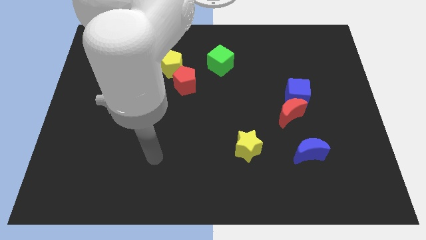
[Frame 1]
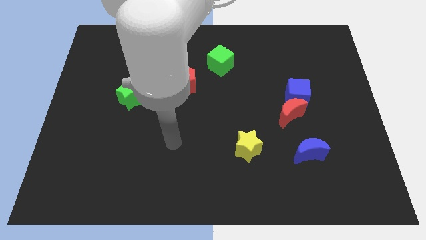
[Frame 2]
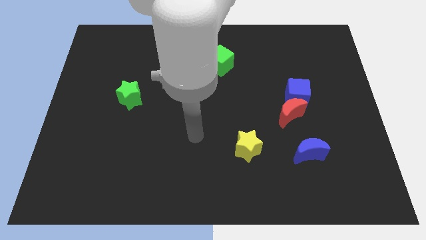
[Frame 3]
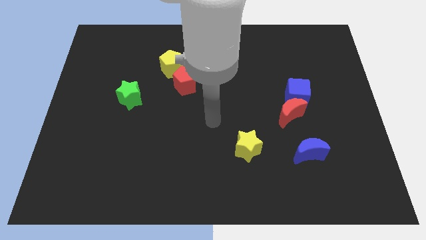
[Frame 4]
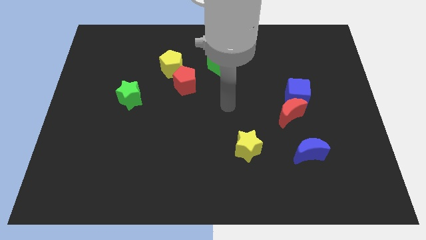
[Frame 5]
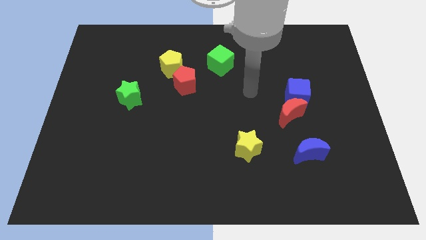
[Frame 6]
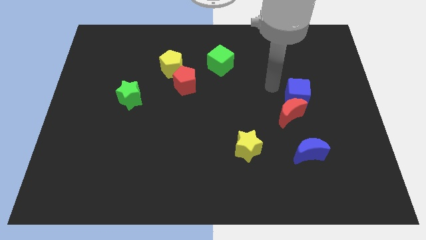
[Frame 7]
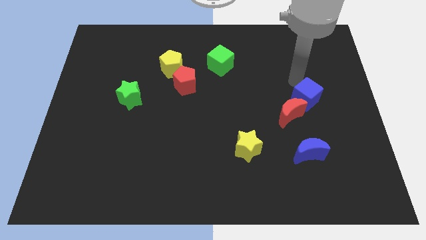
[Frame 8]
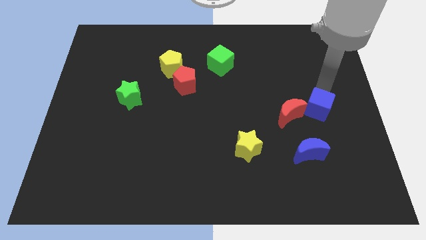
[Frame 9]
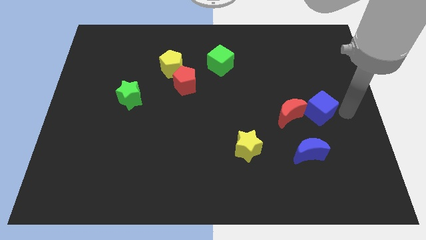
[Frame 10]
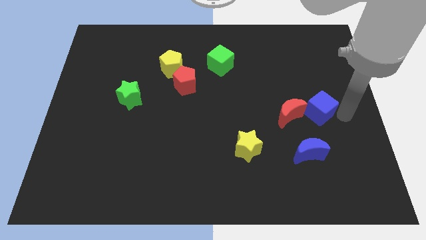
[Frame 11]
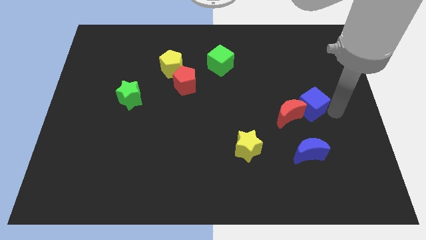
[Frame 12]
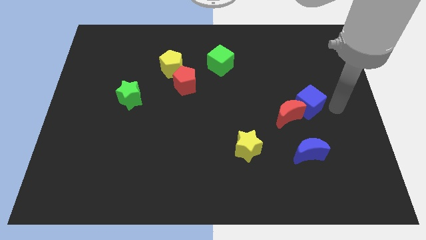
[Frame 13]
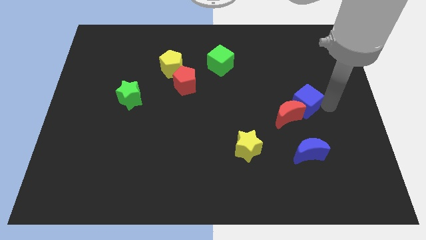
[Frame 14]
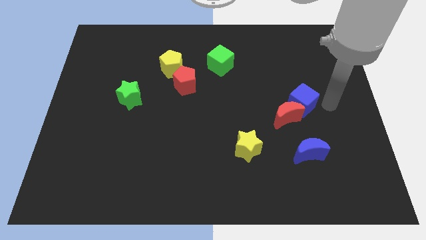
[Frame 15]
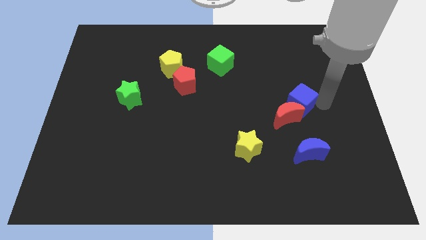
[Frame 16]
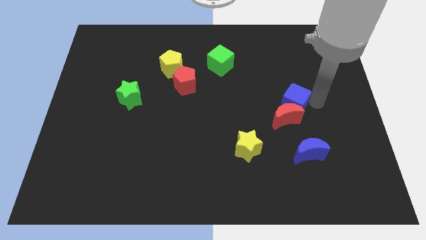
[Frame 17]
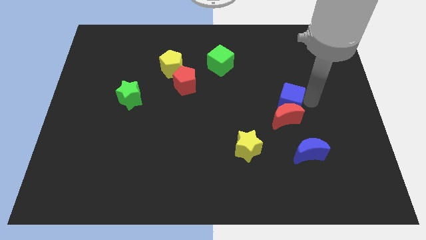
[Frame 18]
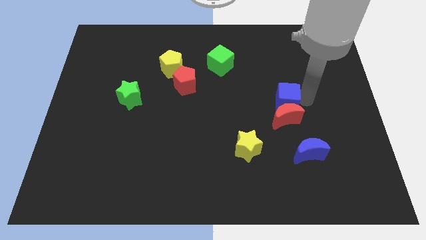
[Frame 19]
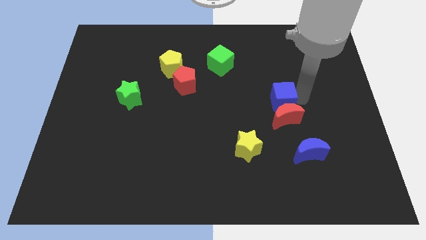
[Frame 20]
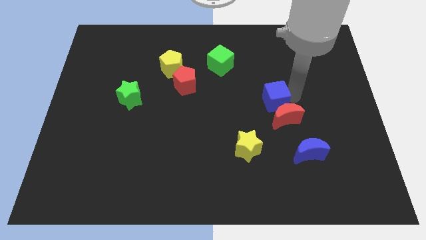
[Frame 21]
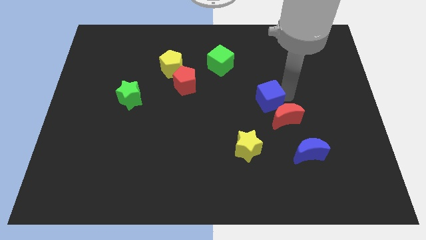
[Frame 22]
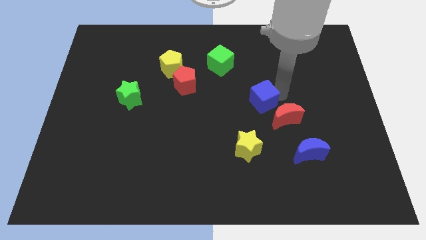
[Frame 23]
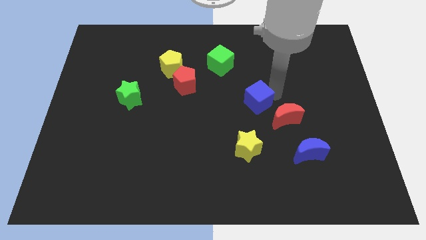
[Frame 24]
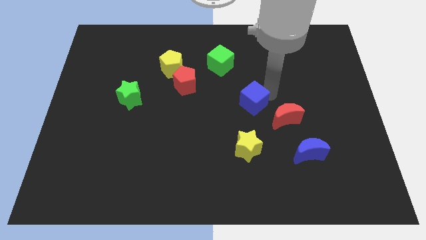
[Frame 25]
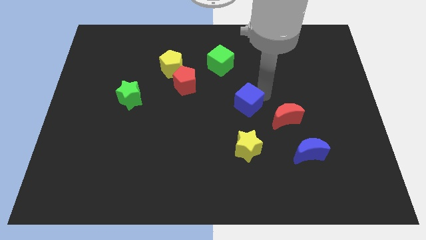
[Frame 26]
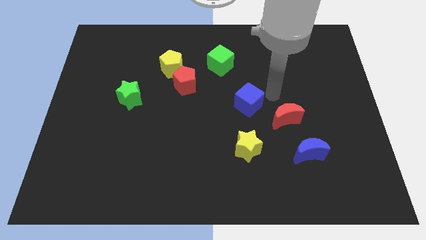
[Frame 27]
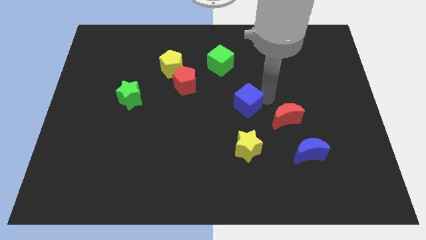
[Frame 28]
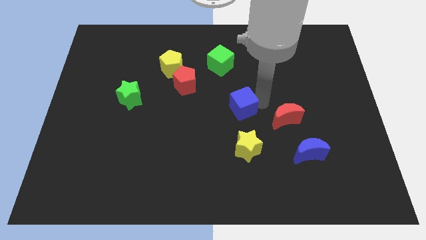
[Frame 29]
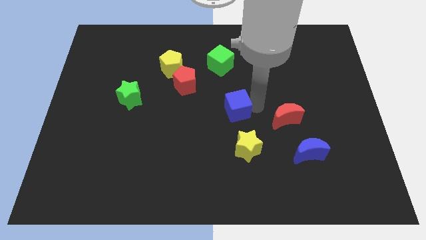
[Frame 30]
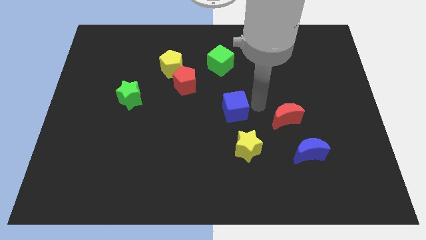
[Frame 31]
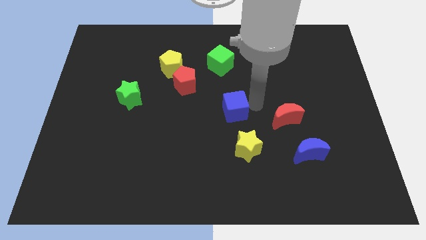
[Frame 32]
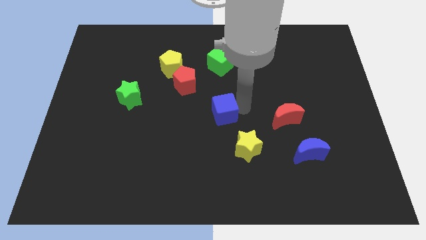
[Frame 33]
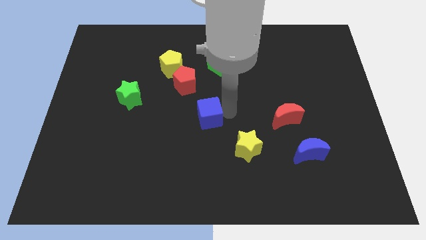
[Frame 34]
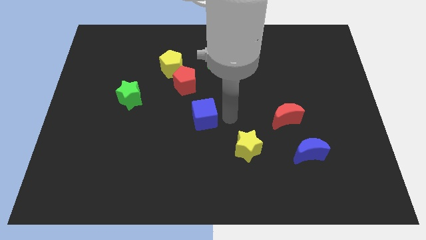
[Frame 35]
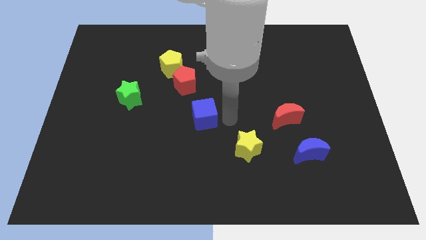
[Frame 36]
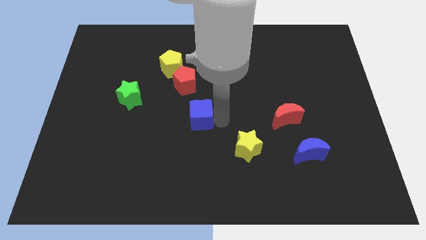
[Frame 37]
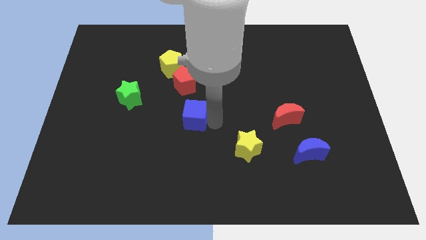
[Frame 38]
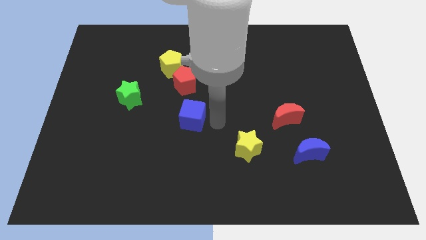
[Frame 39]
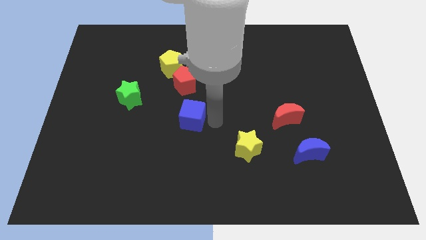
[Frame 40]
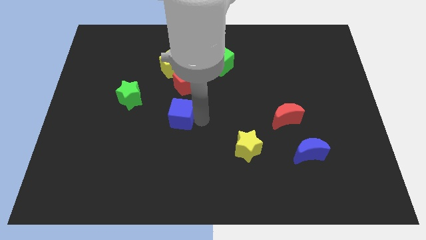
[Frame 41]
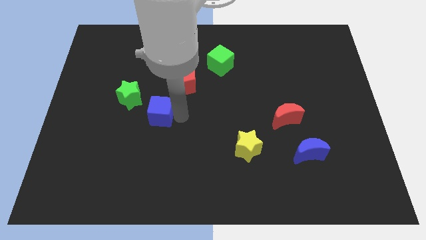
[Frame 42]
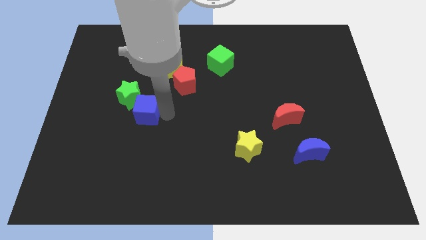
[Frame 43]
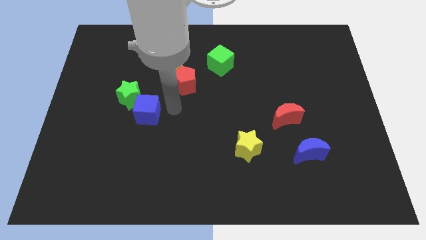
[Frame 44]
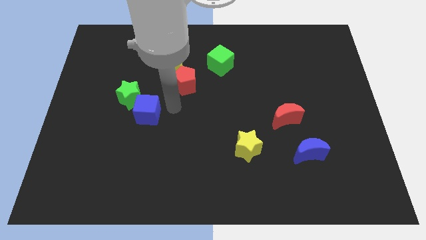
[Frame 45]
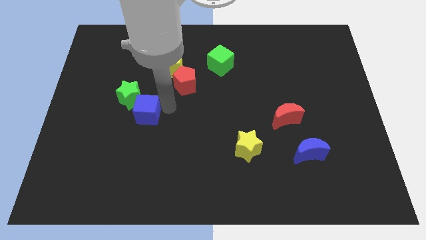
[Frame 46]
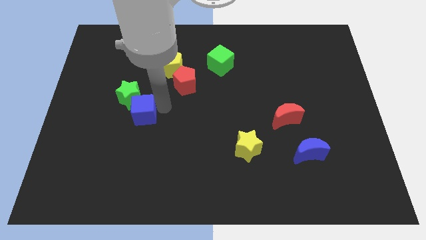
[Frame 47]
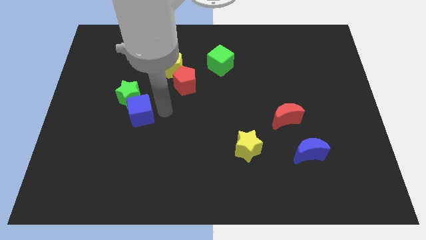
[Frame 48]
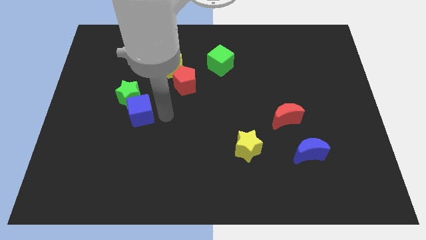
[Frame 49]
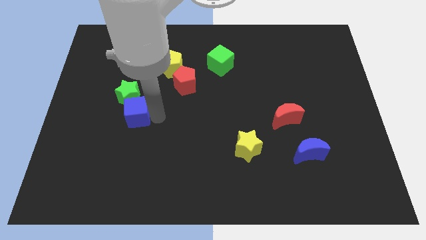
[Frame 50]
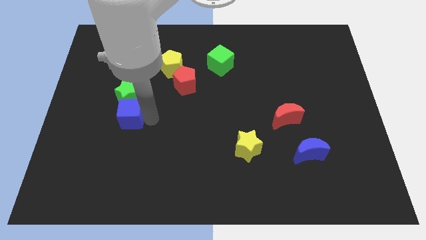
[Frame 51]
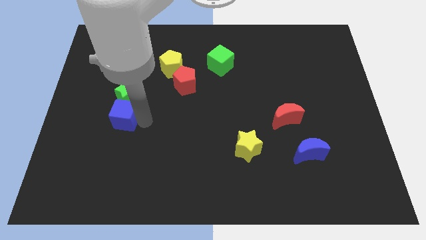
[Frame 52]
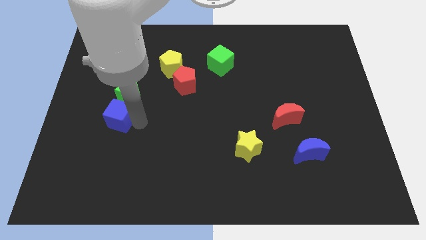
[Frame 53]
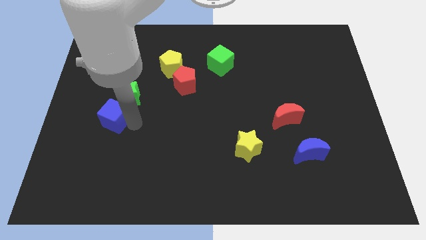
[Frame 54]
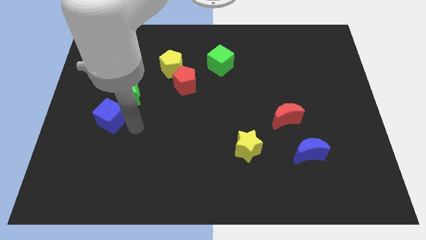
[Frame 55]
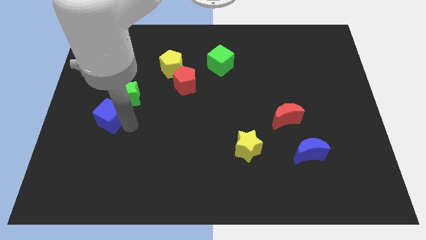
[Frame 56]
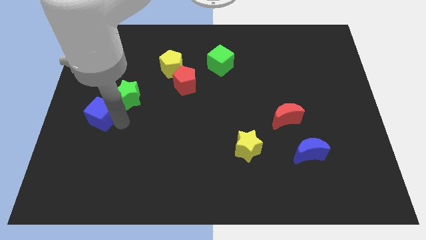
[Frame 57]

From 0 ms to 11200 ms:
put the blue cube to the left side
